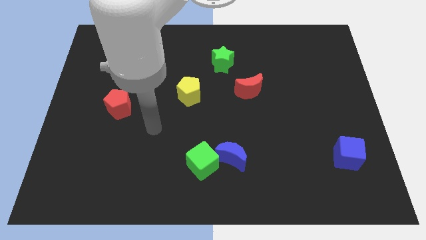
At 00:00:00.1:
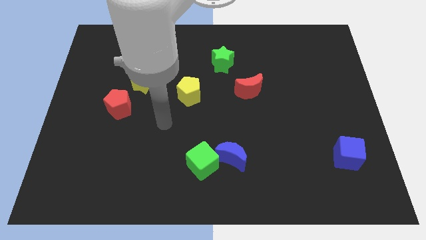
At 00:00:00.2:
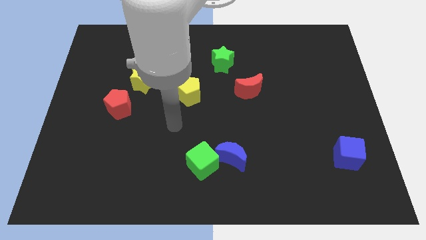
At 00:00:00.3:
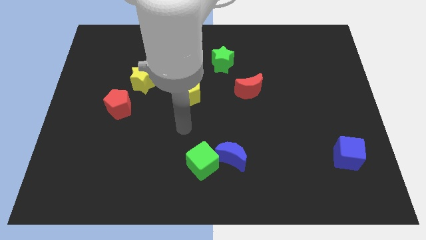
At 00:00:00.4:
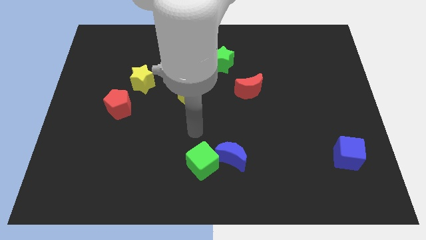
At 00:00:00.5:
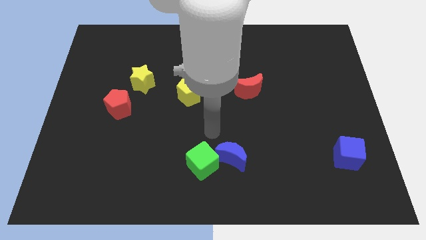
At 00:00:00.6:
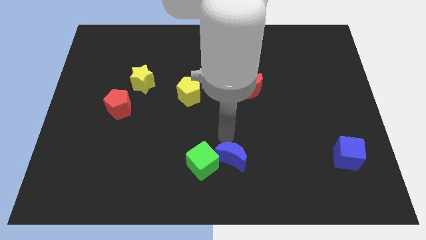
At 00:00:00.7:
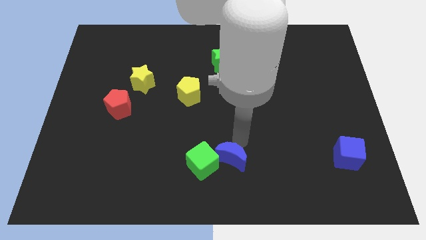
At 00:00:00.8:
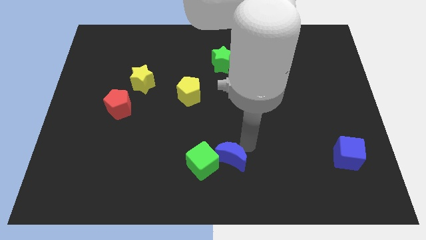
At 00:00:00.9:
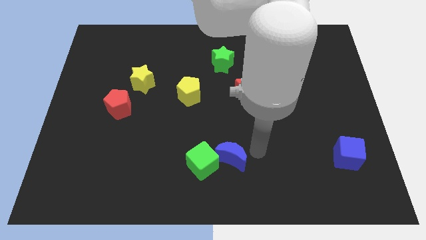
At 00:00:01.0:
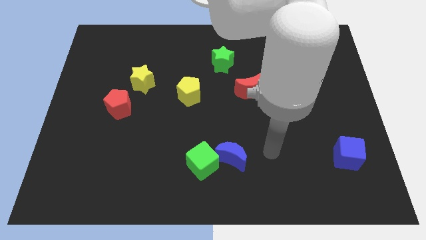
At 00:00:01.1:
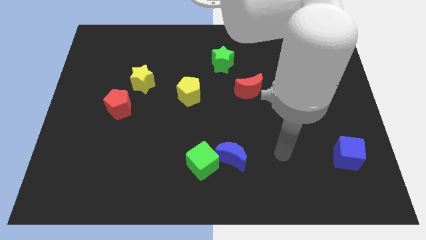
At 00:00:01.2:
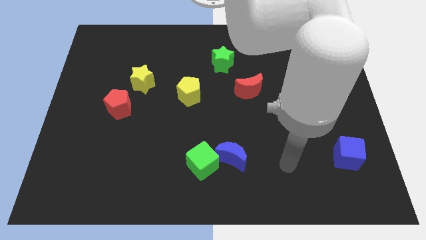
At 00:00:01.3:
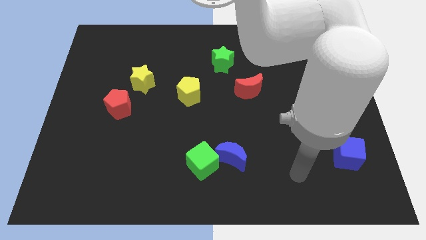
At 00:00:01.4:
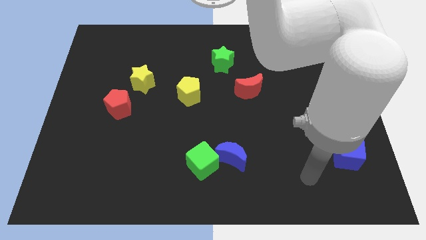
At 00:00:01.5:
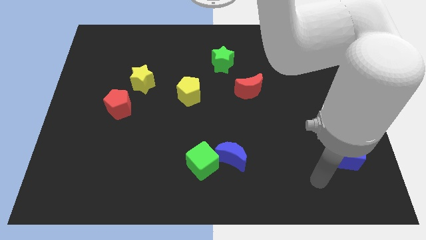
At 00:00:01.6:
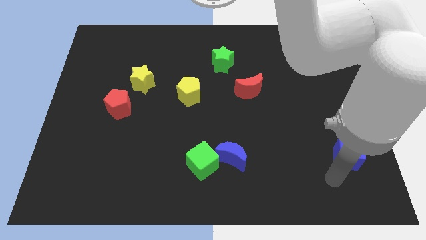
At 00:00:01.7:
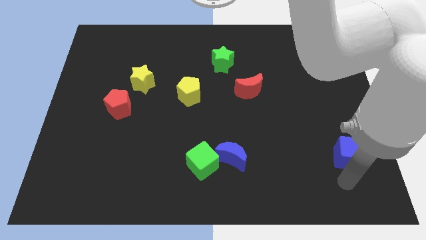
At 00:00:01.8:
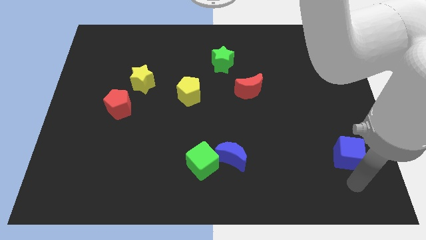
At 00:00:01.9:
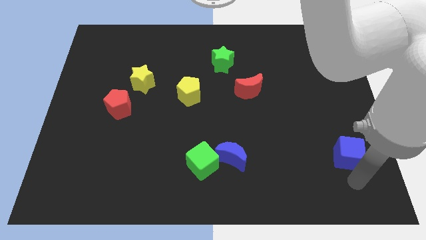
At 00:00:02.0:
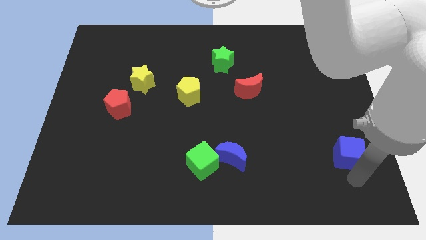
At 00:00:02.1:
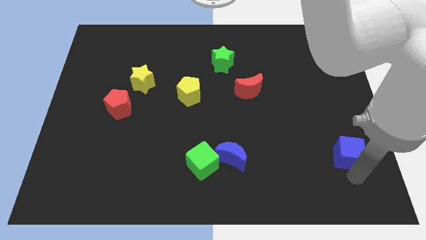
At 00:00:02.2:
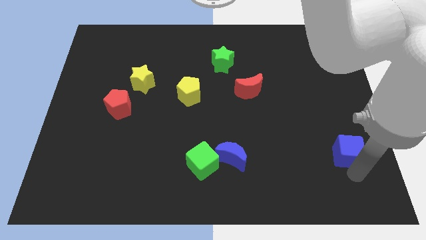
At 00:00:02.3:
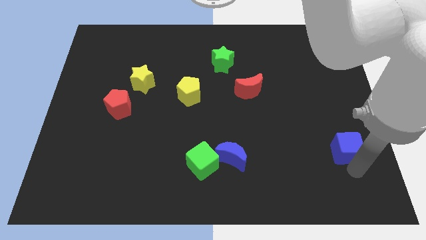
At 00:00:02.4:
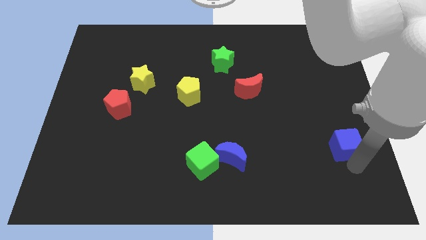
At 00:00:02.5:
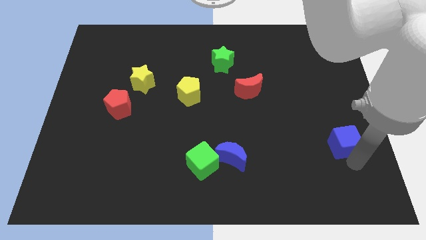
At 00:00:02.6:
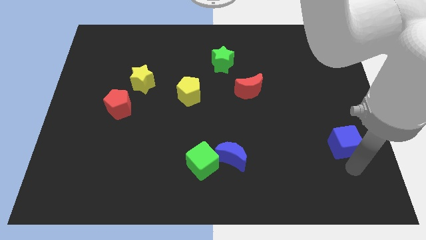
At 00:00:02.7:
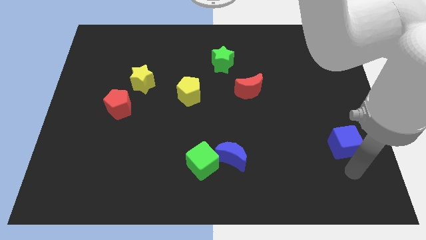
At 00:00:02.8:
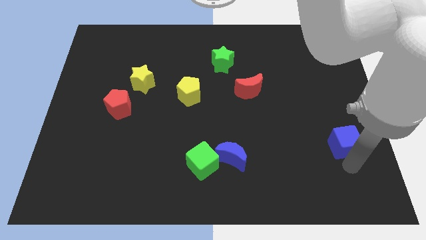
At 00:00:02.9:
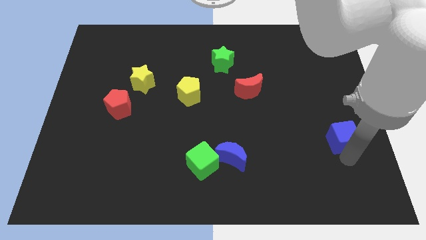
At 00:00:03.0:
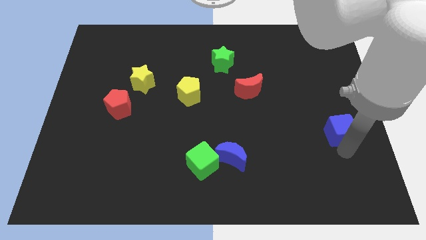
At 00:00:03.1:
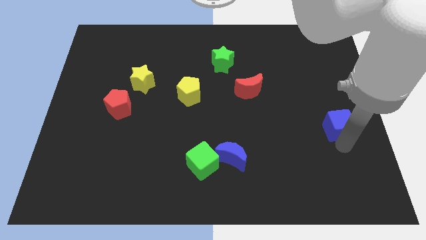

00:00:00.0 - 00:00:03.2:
slightly push the blue cube upwards

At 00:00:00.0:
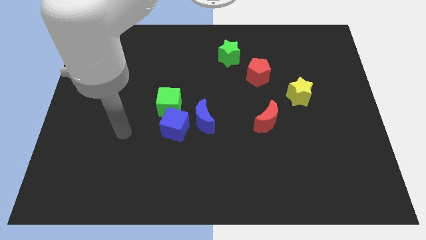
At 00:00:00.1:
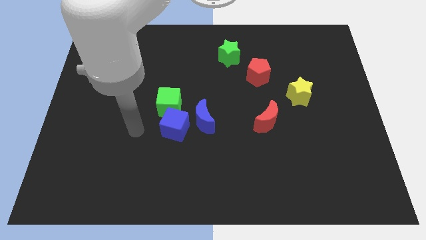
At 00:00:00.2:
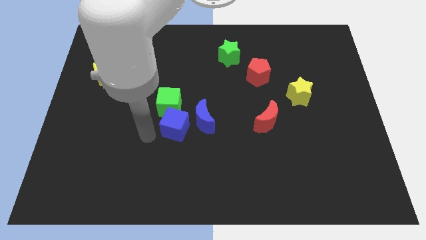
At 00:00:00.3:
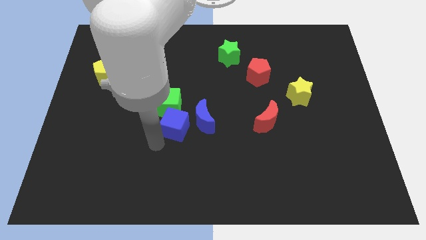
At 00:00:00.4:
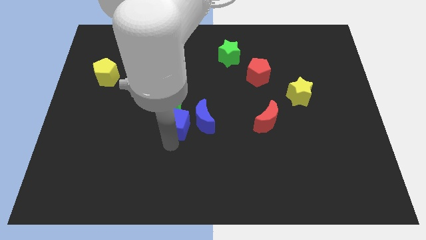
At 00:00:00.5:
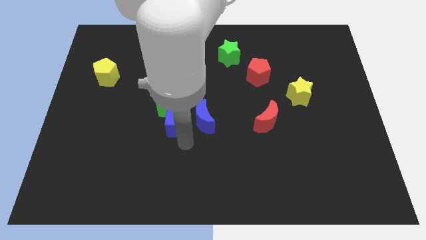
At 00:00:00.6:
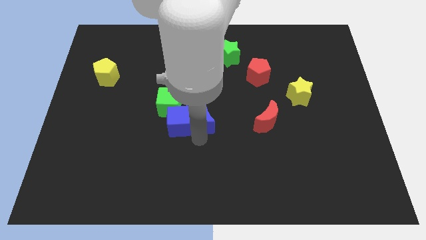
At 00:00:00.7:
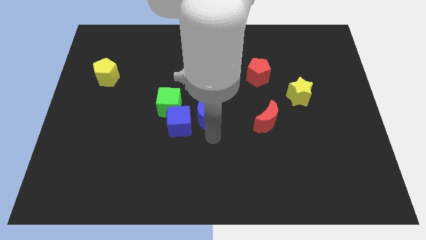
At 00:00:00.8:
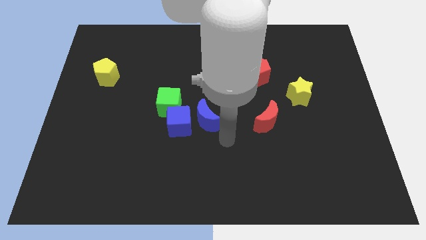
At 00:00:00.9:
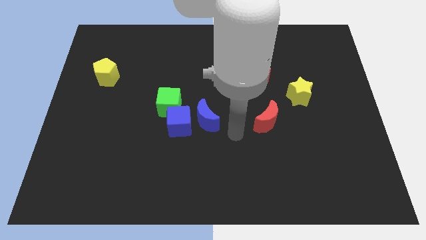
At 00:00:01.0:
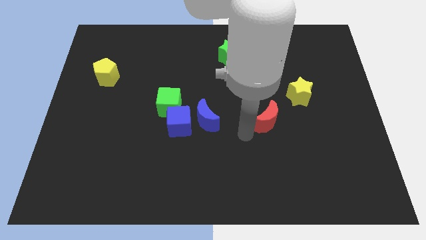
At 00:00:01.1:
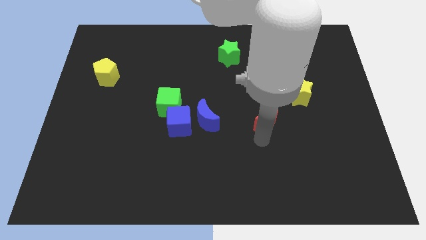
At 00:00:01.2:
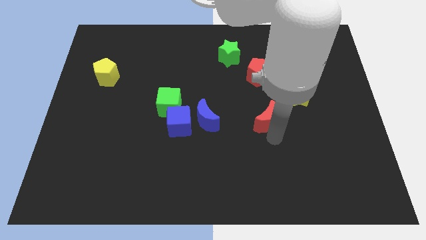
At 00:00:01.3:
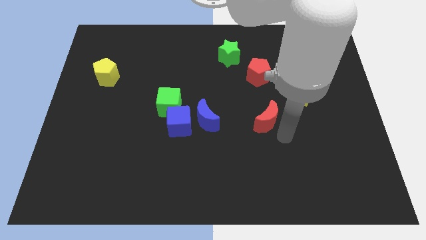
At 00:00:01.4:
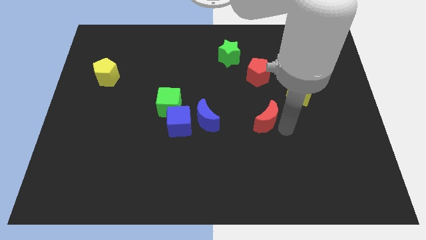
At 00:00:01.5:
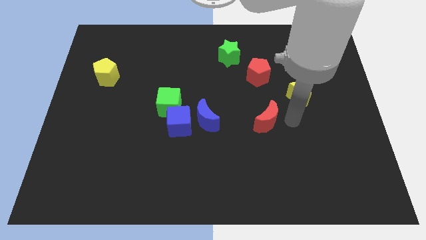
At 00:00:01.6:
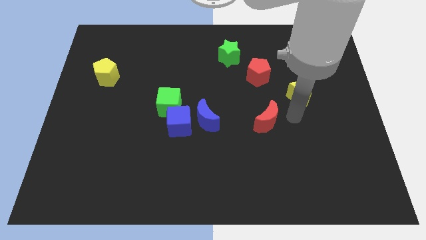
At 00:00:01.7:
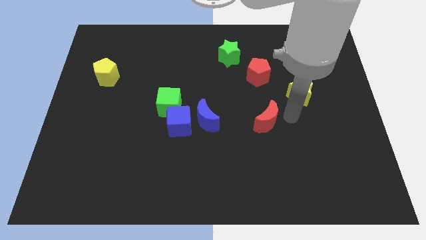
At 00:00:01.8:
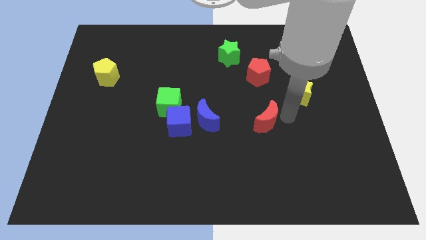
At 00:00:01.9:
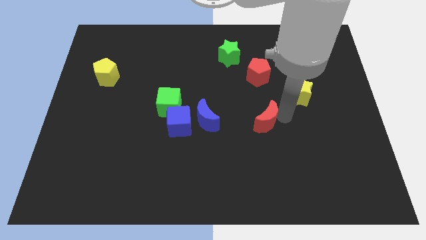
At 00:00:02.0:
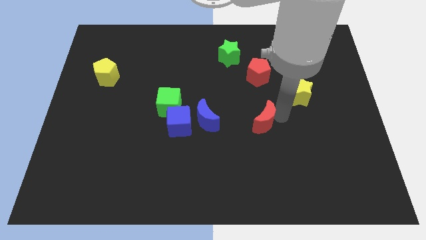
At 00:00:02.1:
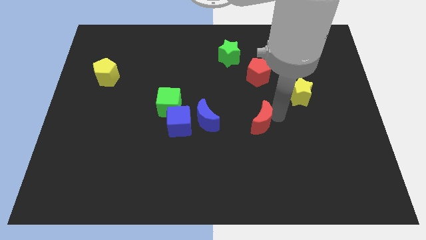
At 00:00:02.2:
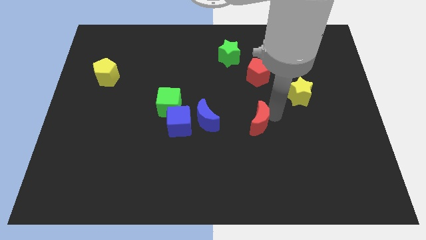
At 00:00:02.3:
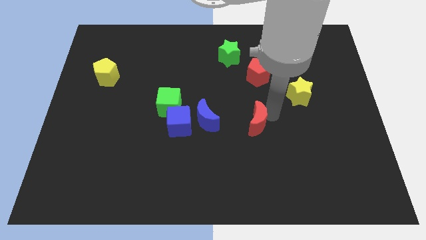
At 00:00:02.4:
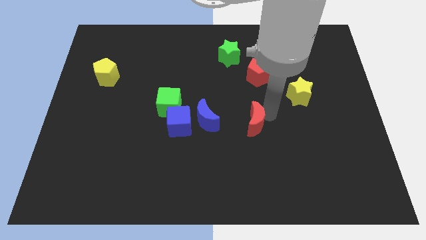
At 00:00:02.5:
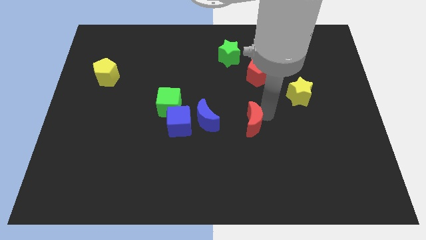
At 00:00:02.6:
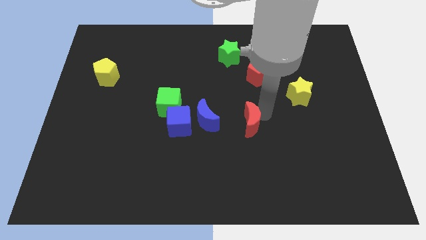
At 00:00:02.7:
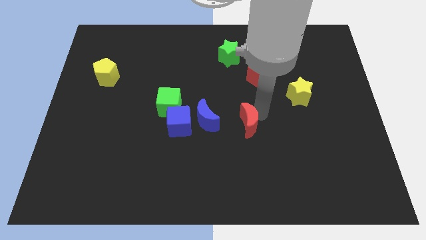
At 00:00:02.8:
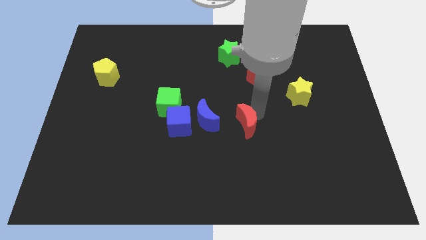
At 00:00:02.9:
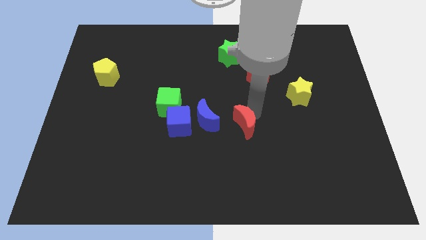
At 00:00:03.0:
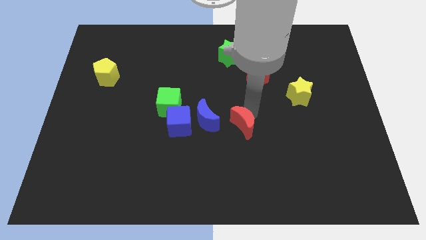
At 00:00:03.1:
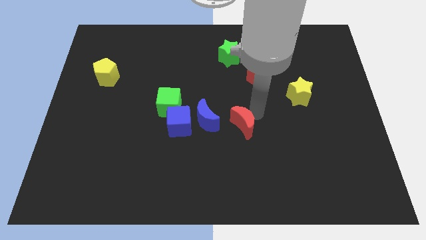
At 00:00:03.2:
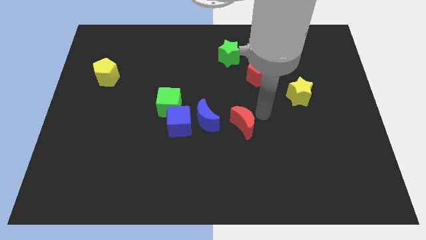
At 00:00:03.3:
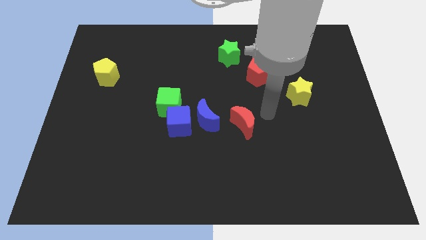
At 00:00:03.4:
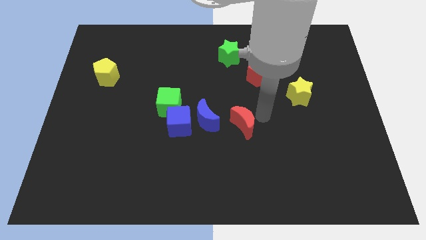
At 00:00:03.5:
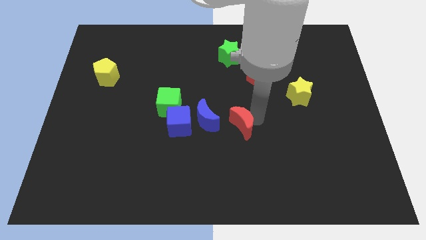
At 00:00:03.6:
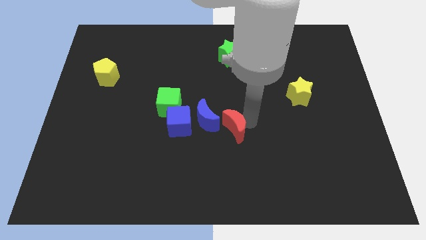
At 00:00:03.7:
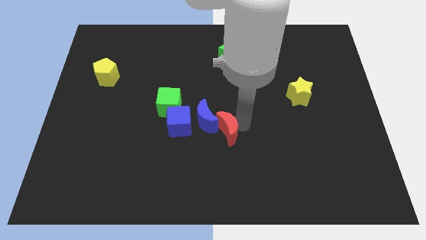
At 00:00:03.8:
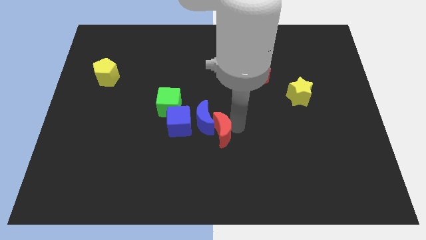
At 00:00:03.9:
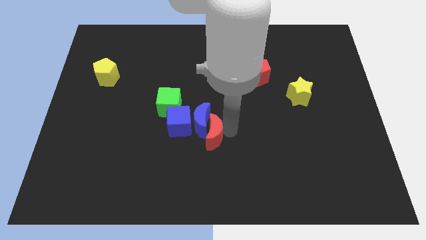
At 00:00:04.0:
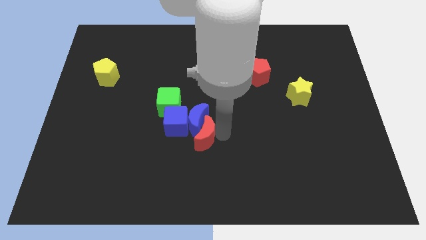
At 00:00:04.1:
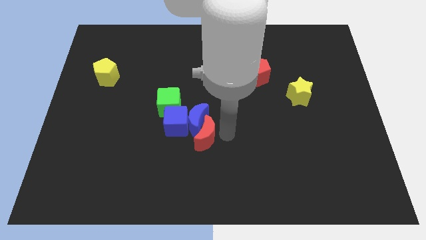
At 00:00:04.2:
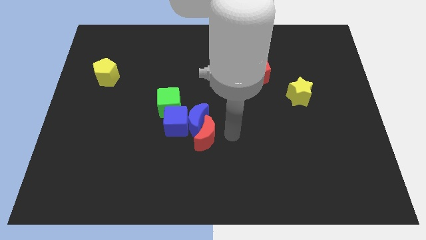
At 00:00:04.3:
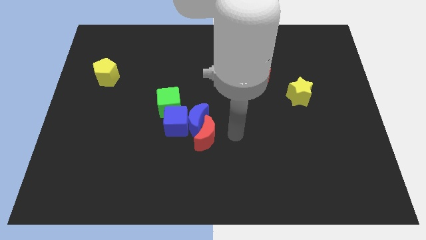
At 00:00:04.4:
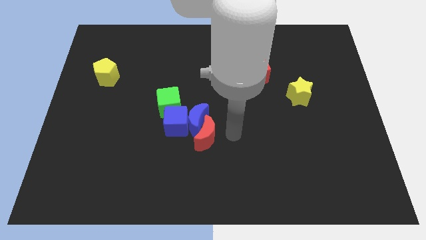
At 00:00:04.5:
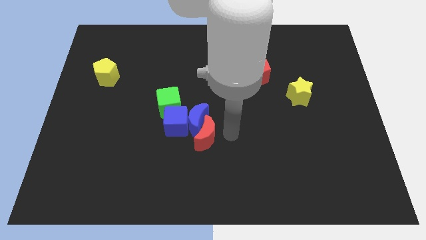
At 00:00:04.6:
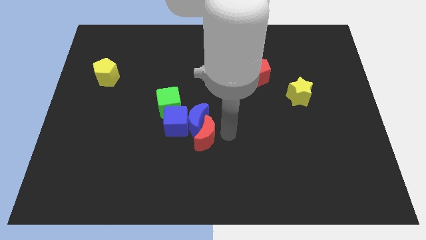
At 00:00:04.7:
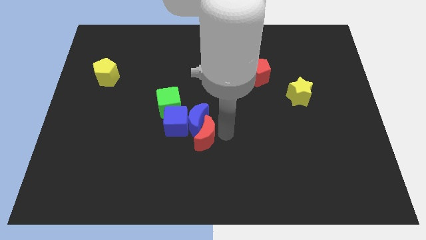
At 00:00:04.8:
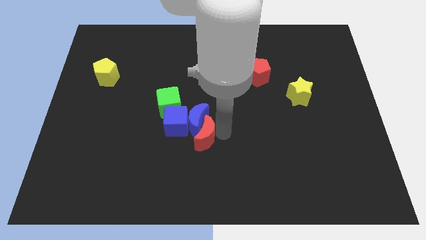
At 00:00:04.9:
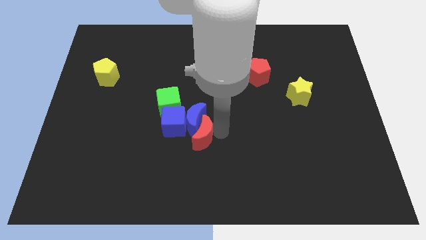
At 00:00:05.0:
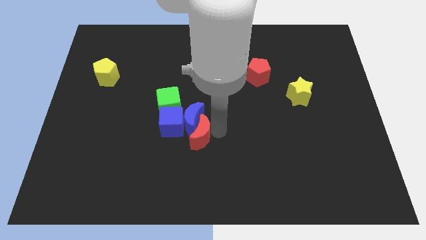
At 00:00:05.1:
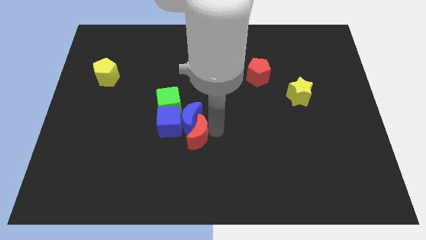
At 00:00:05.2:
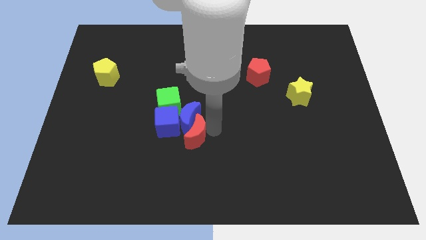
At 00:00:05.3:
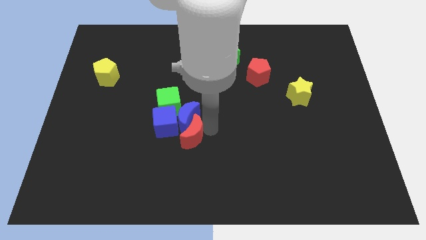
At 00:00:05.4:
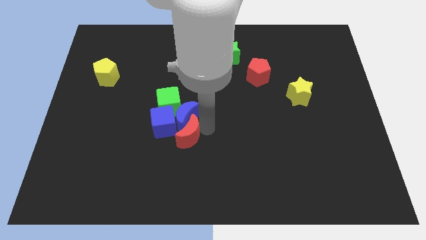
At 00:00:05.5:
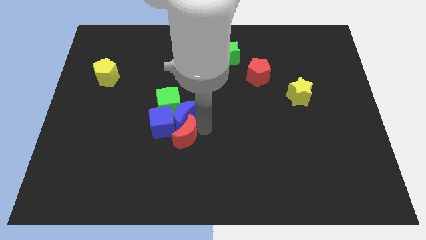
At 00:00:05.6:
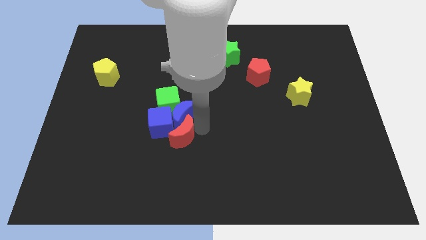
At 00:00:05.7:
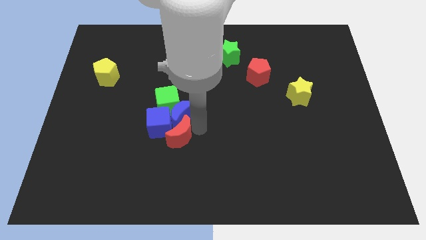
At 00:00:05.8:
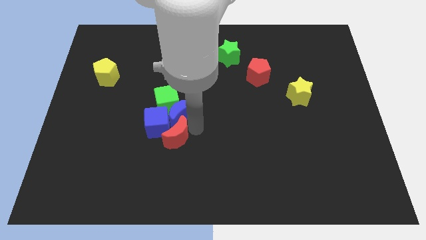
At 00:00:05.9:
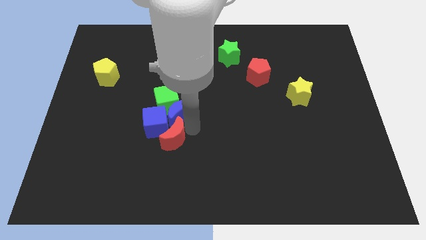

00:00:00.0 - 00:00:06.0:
move the red moon to the left
